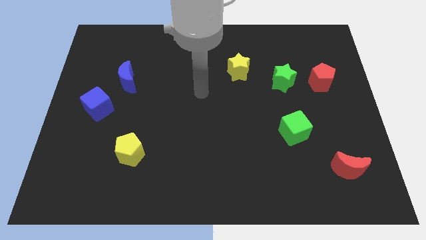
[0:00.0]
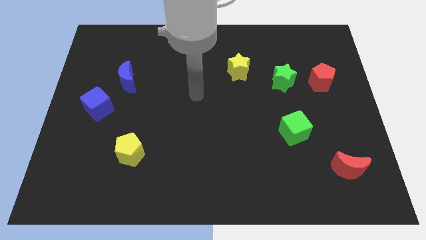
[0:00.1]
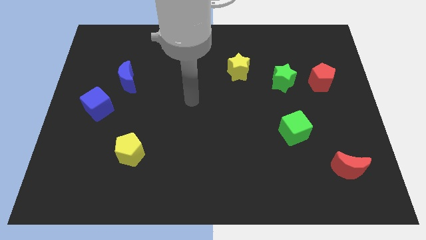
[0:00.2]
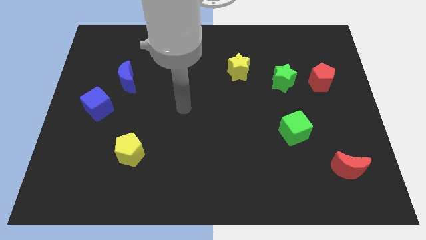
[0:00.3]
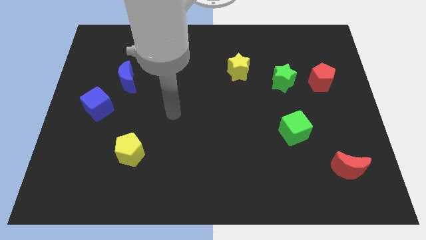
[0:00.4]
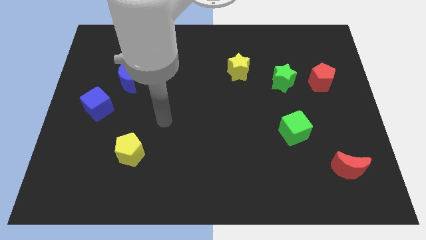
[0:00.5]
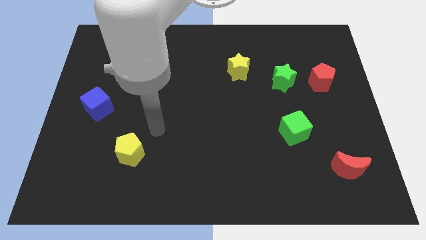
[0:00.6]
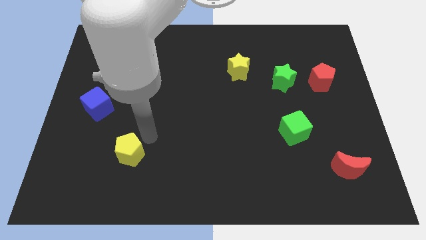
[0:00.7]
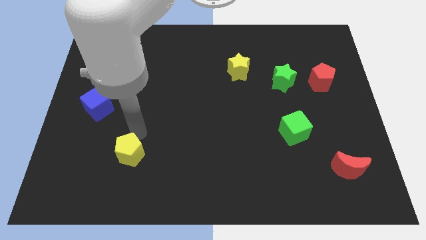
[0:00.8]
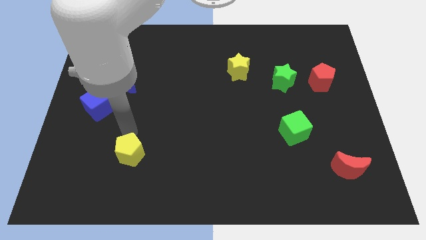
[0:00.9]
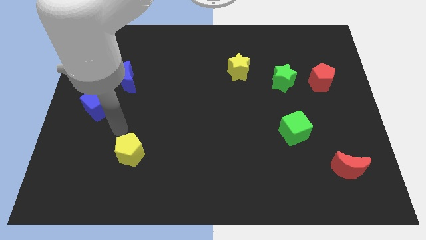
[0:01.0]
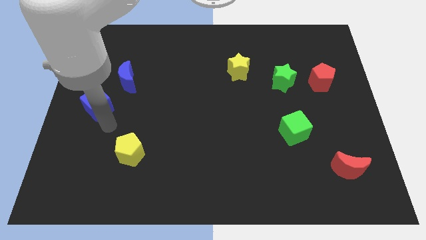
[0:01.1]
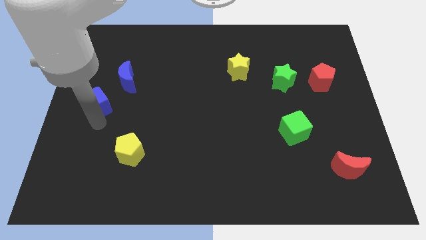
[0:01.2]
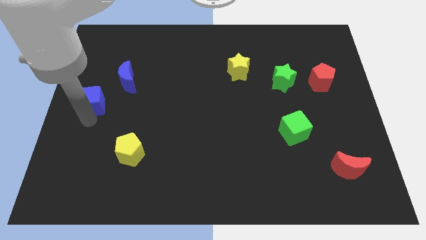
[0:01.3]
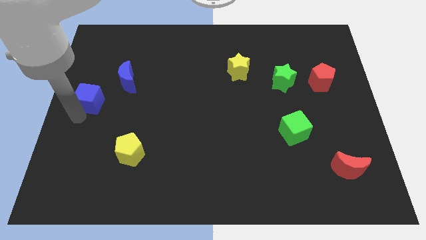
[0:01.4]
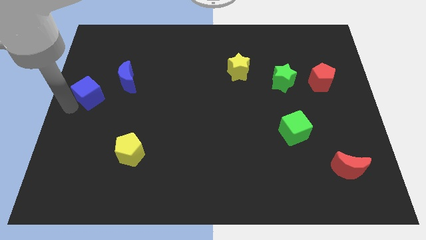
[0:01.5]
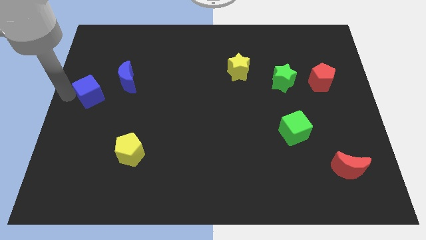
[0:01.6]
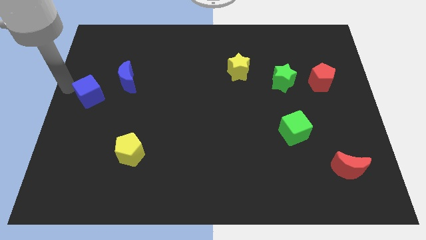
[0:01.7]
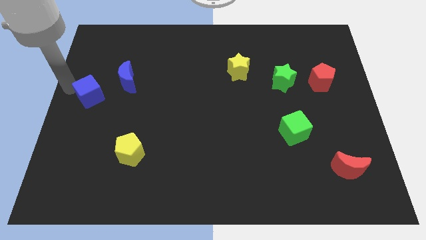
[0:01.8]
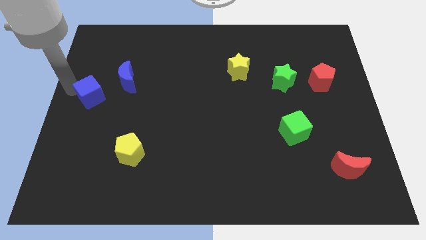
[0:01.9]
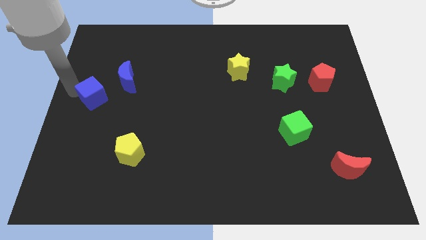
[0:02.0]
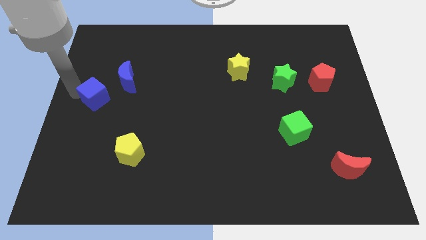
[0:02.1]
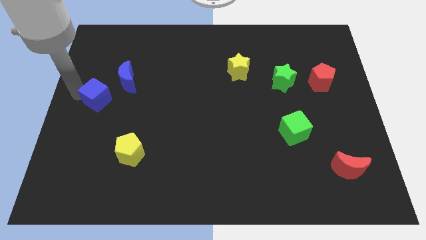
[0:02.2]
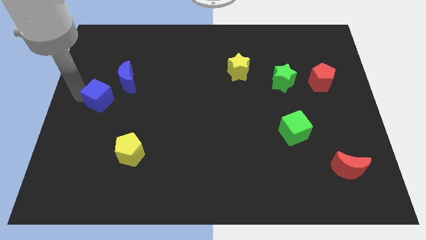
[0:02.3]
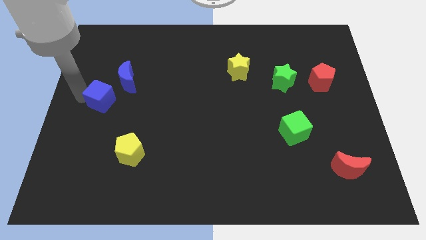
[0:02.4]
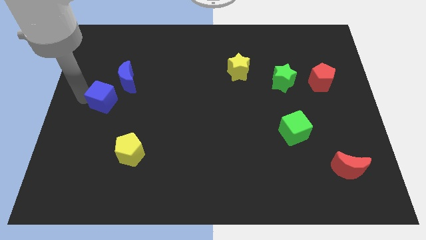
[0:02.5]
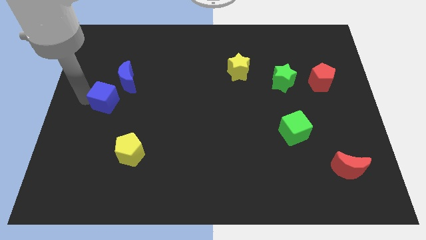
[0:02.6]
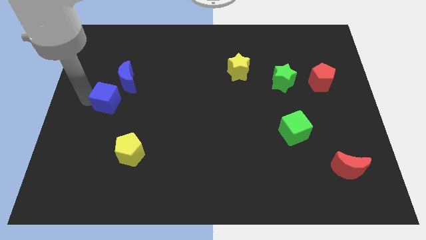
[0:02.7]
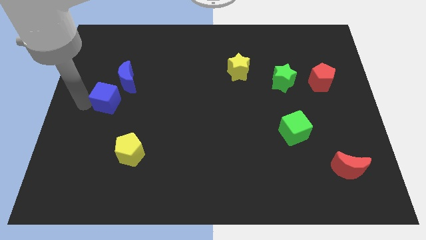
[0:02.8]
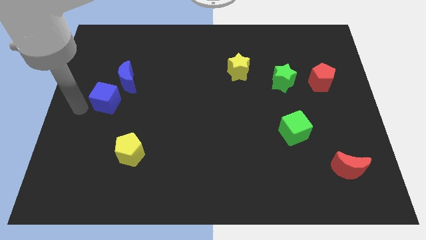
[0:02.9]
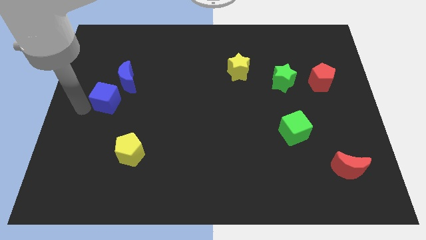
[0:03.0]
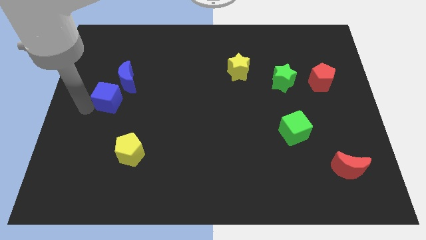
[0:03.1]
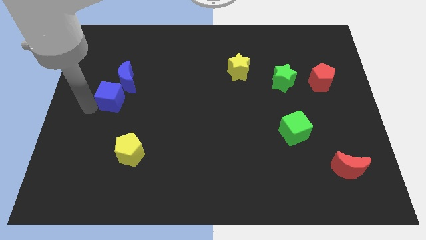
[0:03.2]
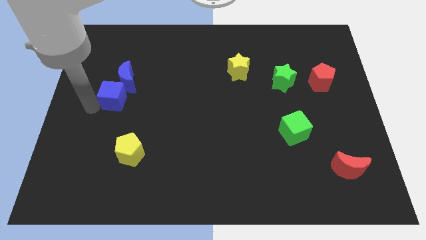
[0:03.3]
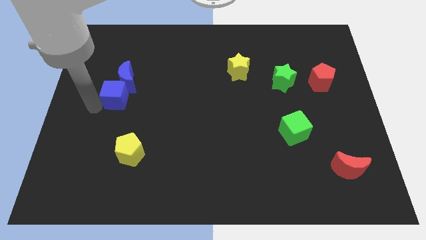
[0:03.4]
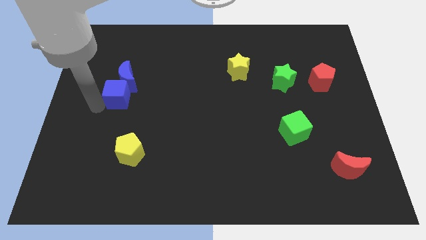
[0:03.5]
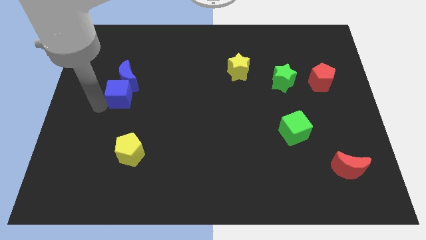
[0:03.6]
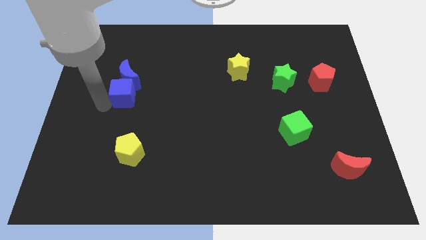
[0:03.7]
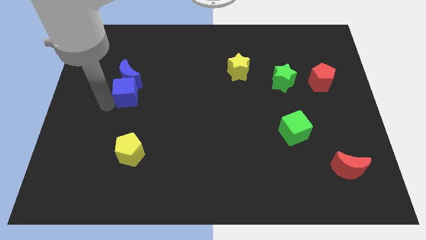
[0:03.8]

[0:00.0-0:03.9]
slightly move the blue cube upwards and then right

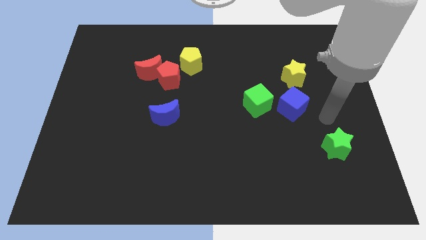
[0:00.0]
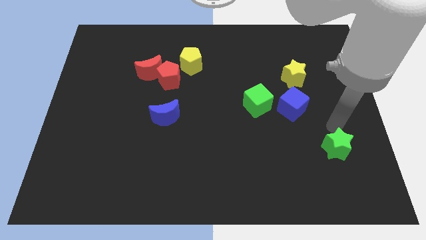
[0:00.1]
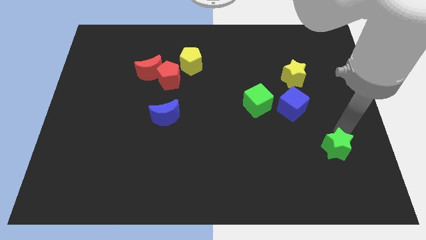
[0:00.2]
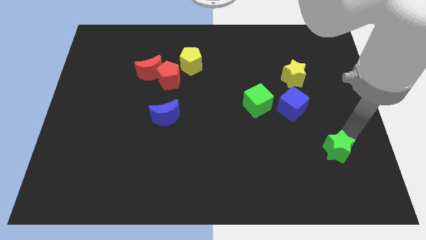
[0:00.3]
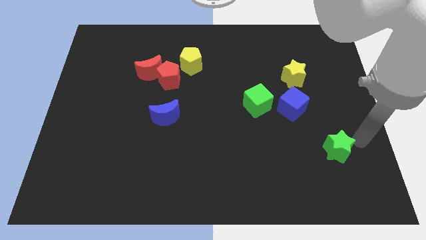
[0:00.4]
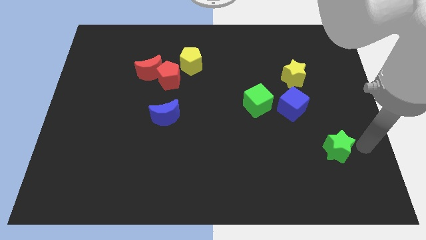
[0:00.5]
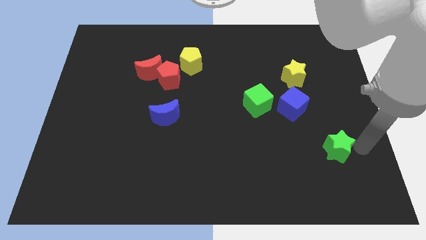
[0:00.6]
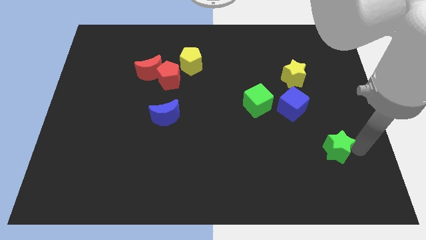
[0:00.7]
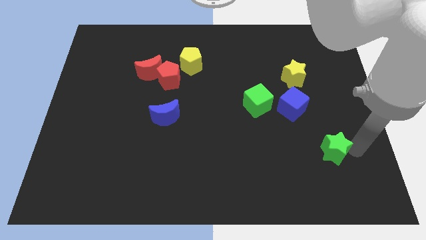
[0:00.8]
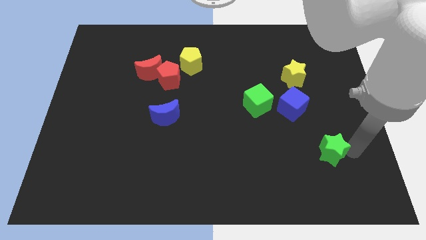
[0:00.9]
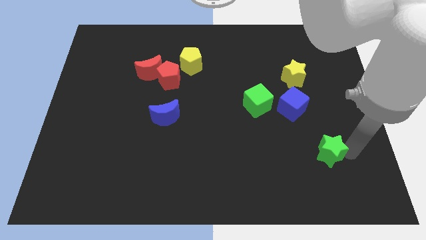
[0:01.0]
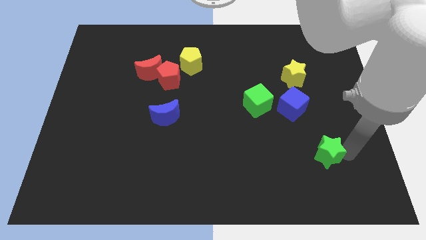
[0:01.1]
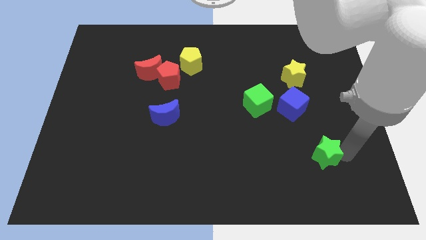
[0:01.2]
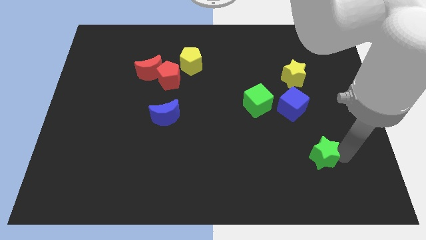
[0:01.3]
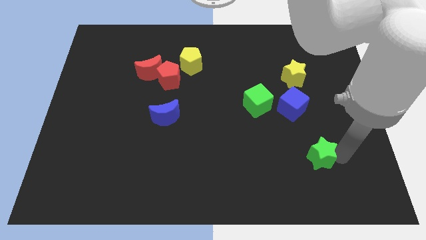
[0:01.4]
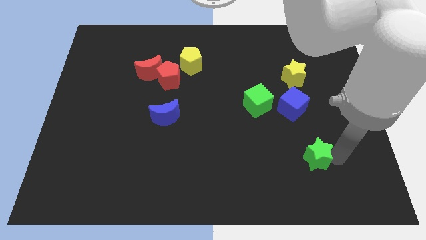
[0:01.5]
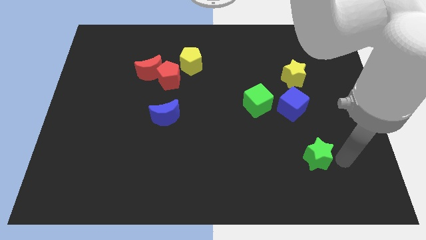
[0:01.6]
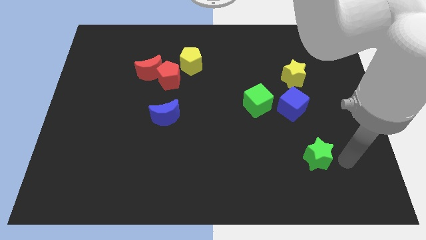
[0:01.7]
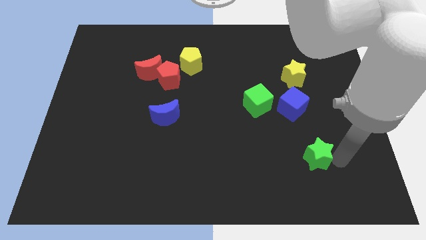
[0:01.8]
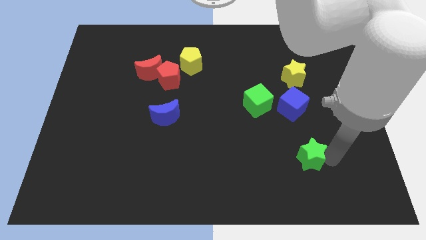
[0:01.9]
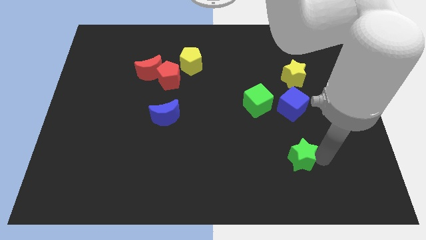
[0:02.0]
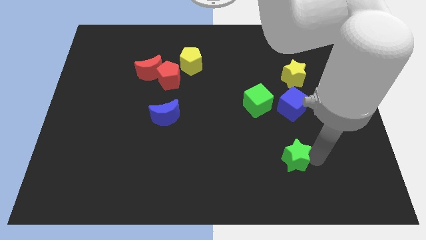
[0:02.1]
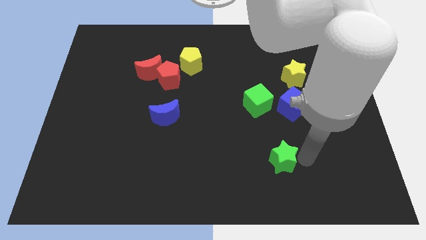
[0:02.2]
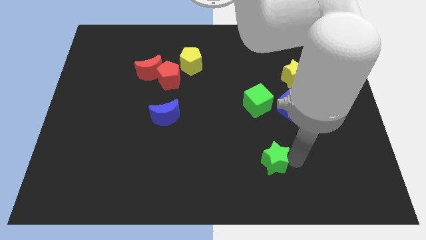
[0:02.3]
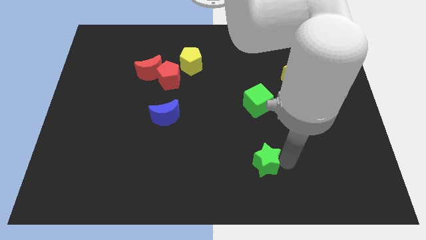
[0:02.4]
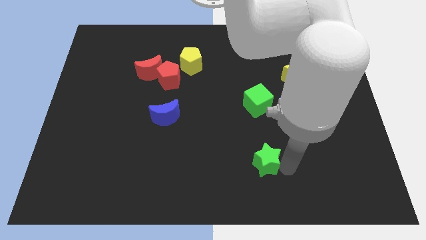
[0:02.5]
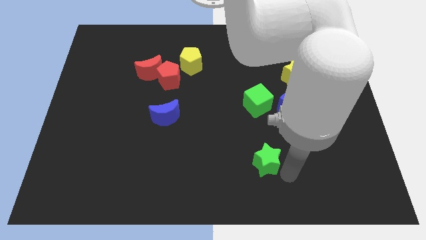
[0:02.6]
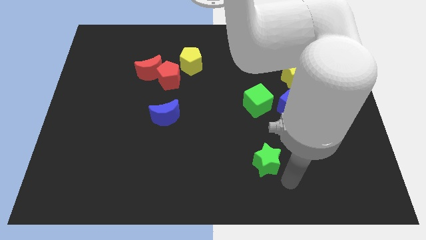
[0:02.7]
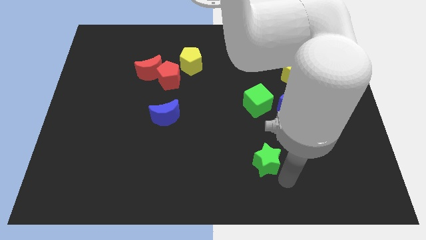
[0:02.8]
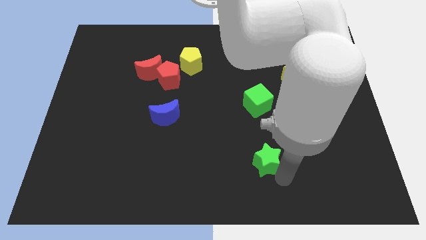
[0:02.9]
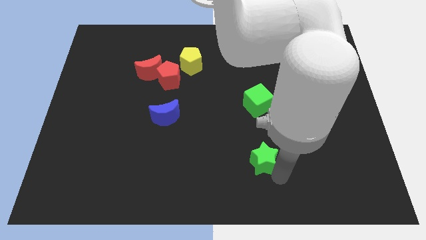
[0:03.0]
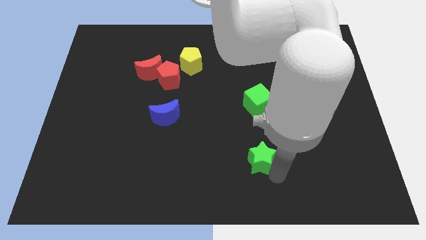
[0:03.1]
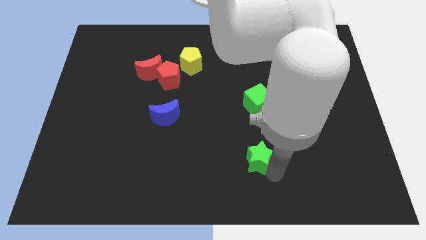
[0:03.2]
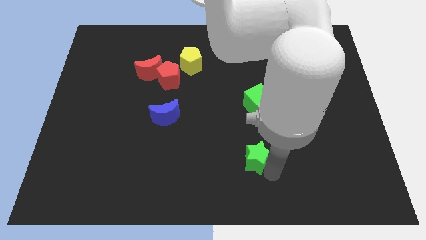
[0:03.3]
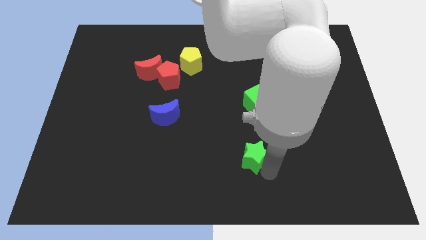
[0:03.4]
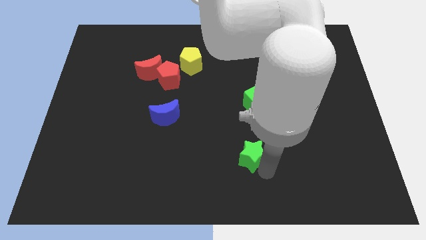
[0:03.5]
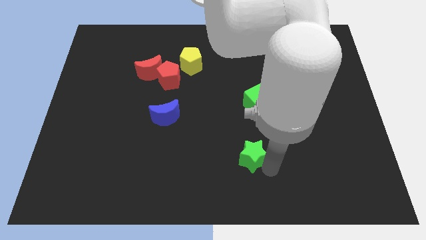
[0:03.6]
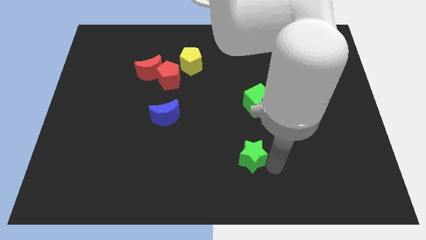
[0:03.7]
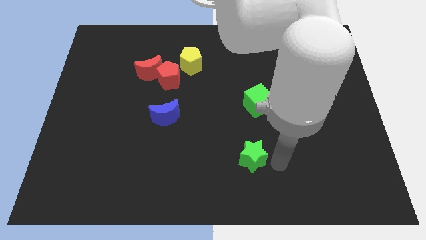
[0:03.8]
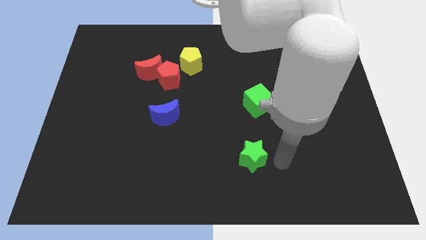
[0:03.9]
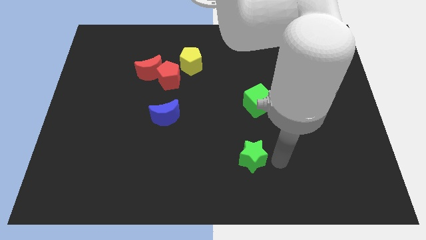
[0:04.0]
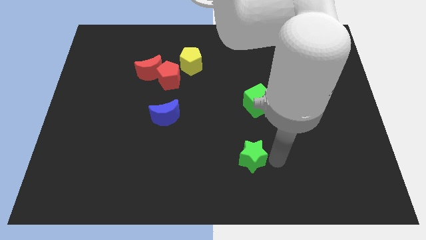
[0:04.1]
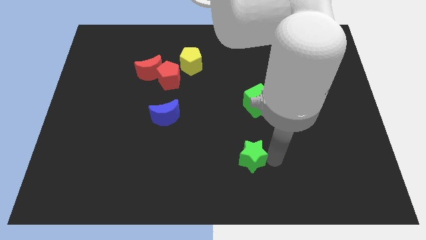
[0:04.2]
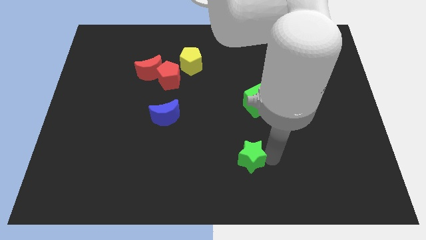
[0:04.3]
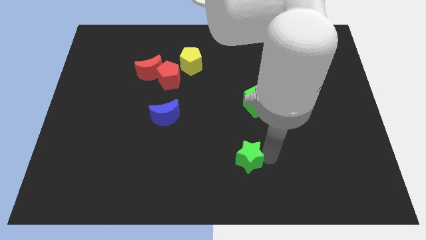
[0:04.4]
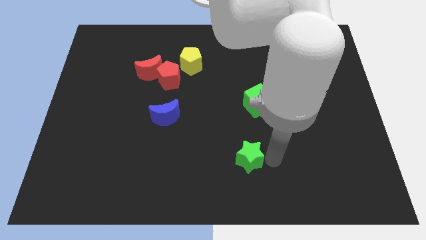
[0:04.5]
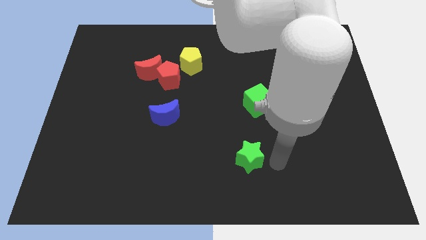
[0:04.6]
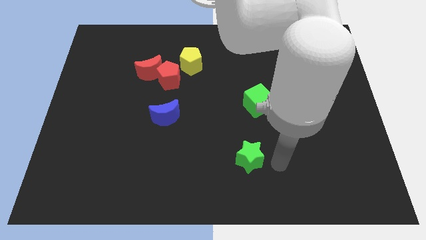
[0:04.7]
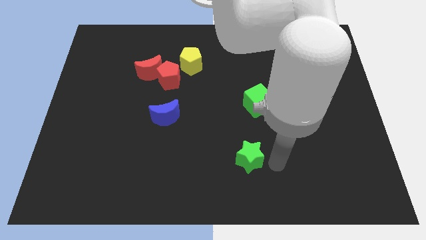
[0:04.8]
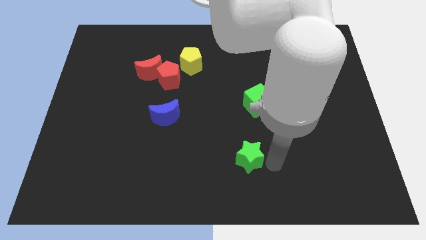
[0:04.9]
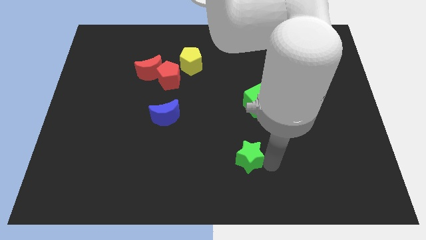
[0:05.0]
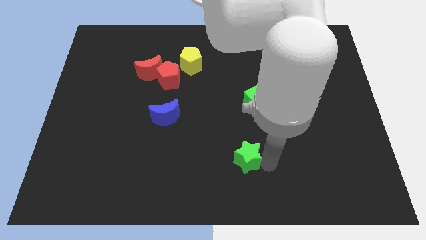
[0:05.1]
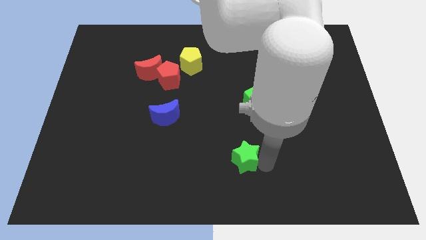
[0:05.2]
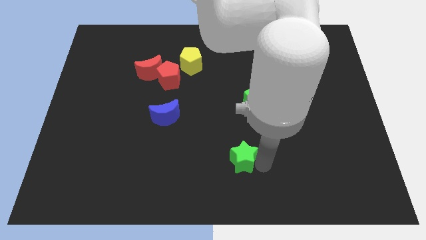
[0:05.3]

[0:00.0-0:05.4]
slide the green star left
